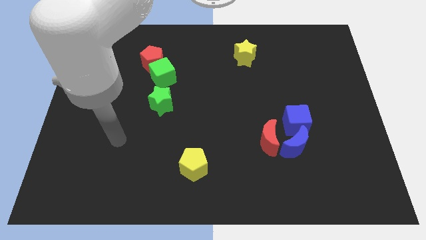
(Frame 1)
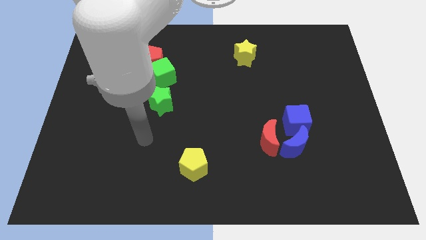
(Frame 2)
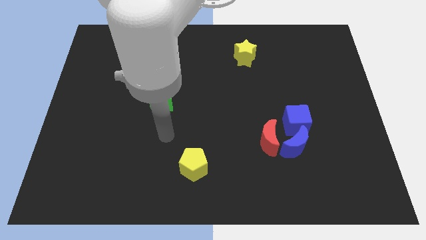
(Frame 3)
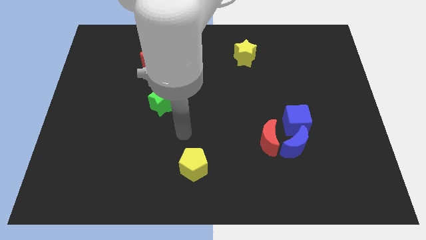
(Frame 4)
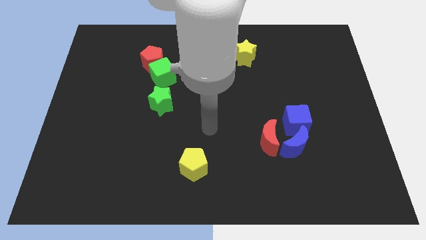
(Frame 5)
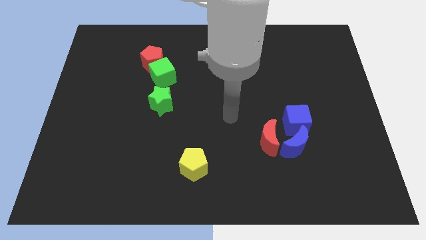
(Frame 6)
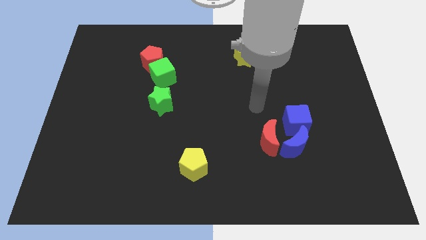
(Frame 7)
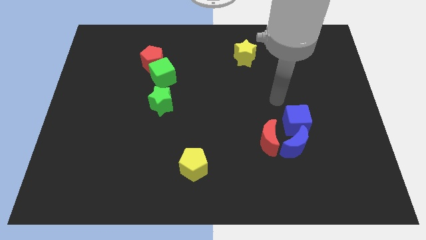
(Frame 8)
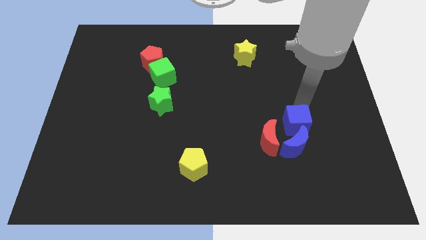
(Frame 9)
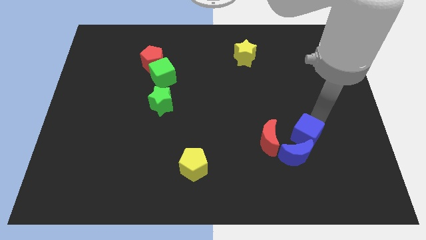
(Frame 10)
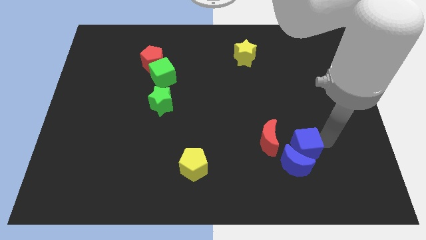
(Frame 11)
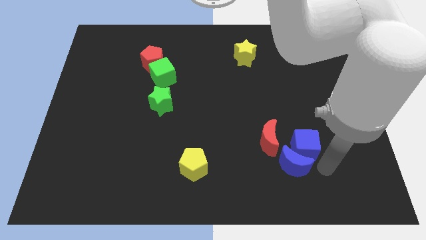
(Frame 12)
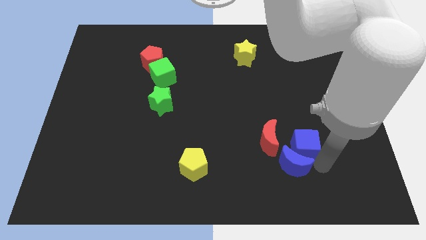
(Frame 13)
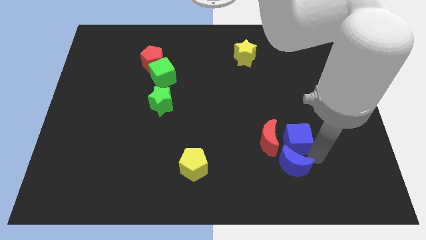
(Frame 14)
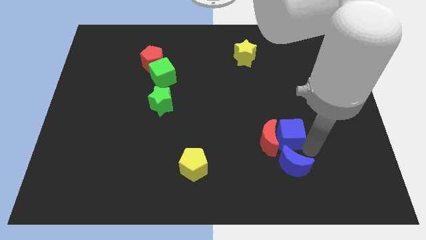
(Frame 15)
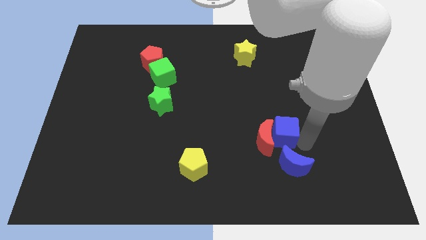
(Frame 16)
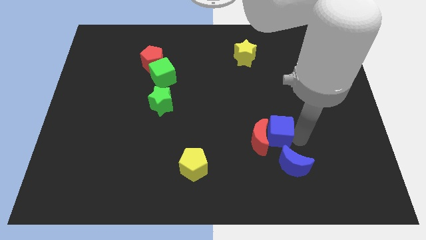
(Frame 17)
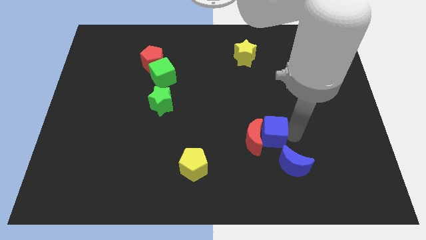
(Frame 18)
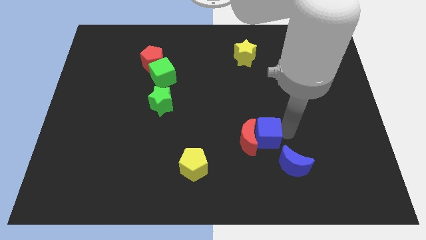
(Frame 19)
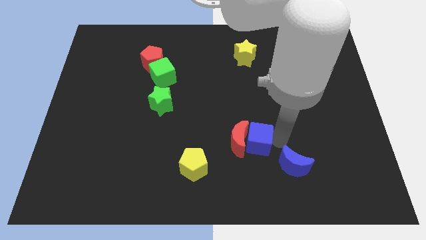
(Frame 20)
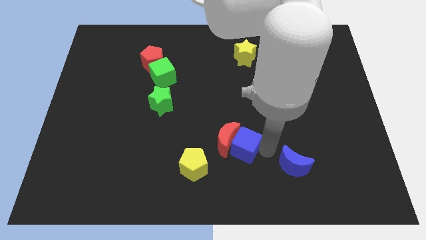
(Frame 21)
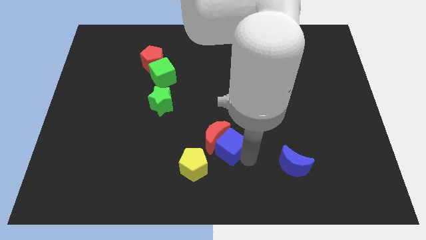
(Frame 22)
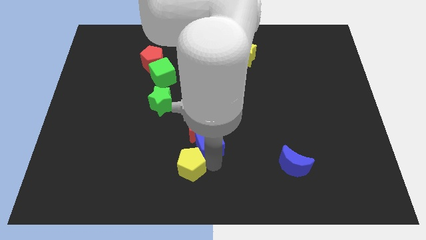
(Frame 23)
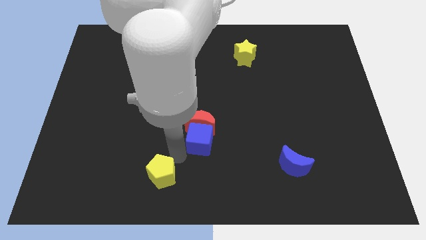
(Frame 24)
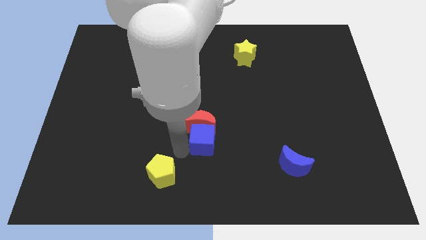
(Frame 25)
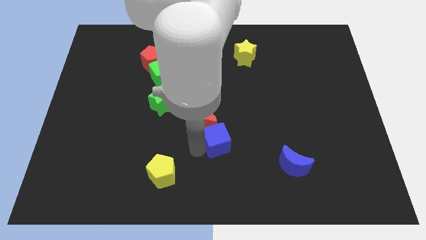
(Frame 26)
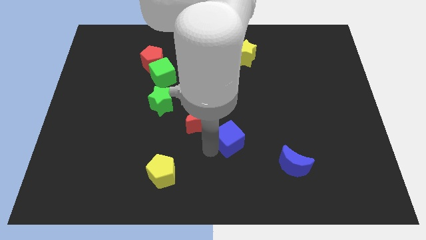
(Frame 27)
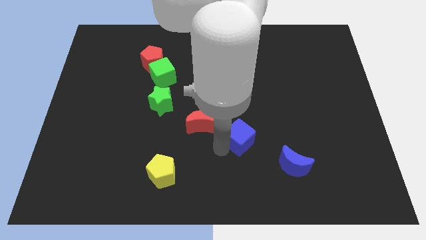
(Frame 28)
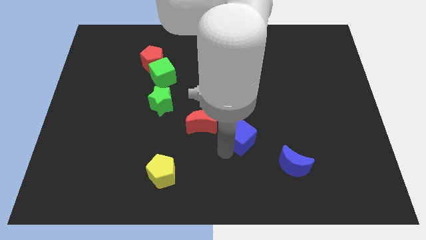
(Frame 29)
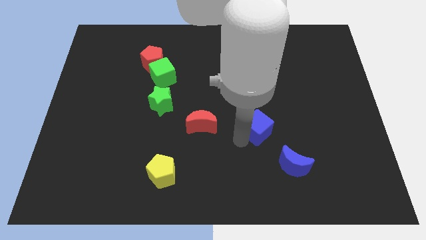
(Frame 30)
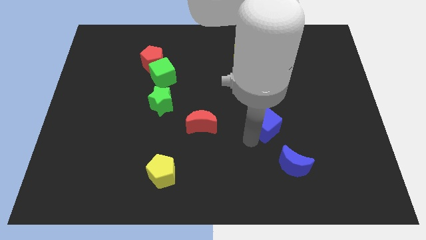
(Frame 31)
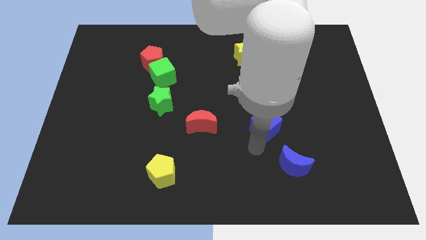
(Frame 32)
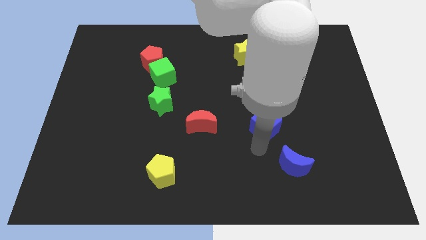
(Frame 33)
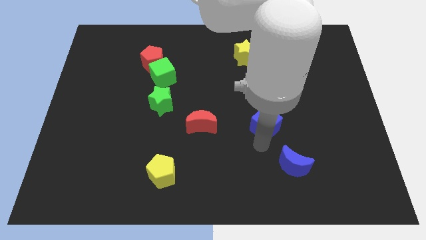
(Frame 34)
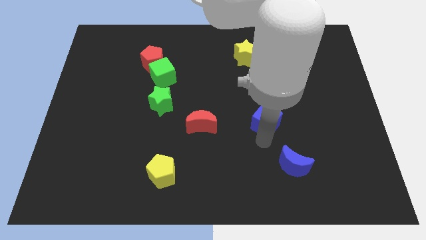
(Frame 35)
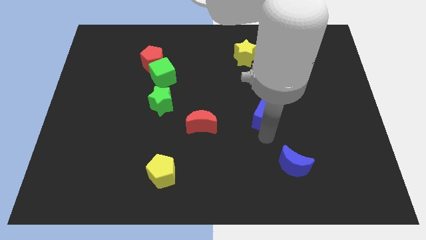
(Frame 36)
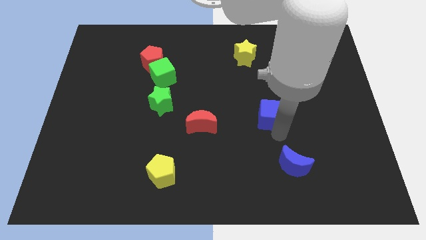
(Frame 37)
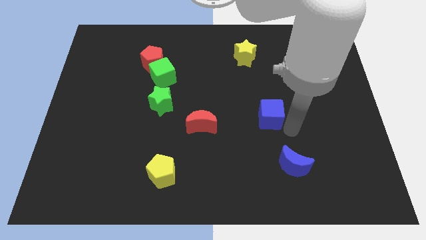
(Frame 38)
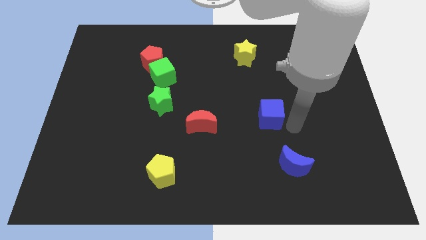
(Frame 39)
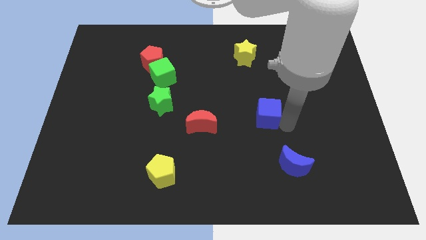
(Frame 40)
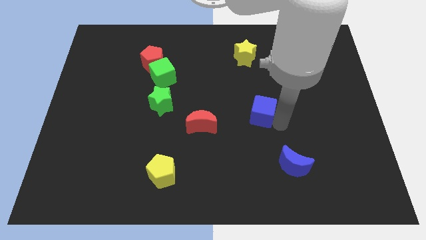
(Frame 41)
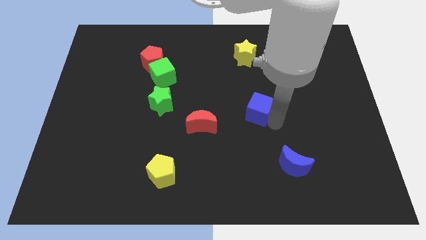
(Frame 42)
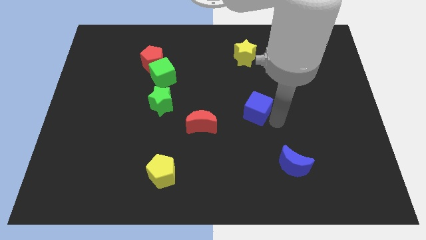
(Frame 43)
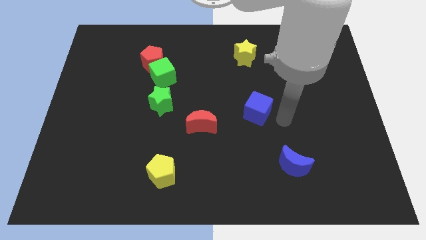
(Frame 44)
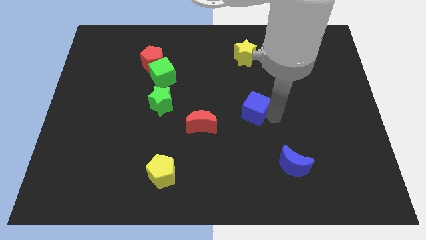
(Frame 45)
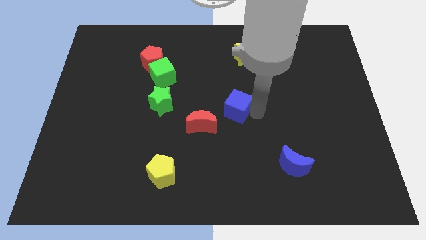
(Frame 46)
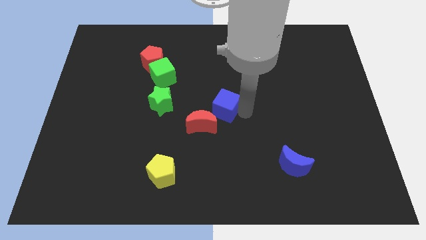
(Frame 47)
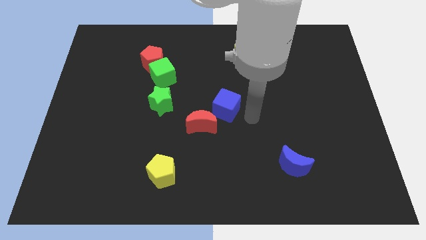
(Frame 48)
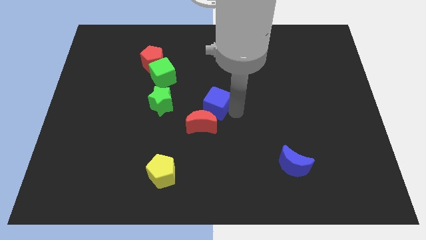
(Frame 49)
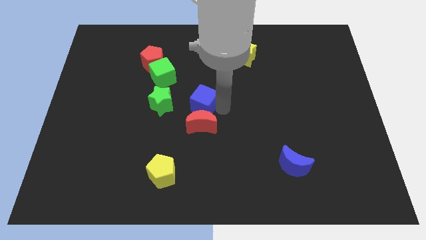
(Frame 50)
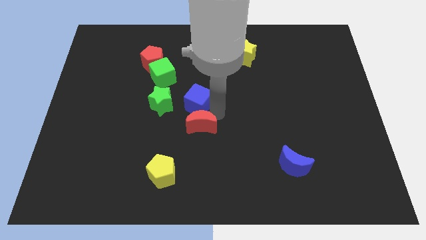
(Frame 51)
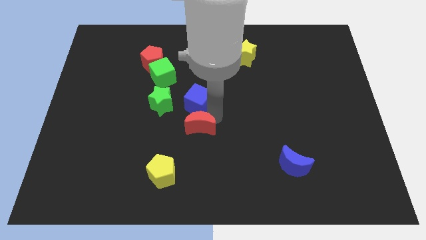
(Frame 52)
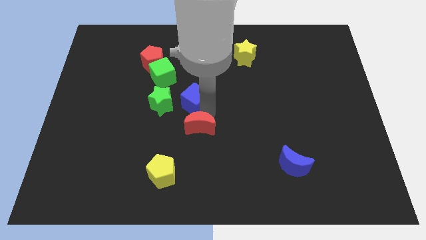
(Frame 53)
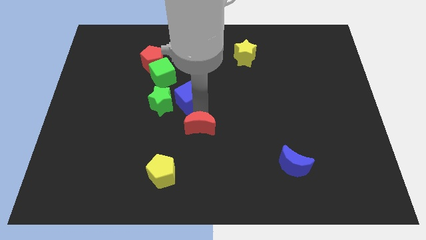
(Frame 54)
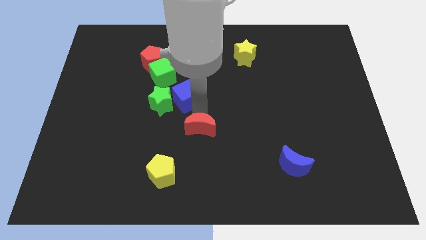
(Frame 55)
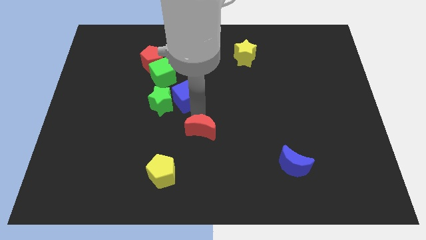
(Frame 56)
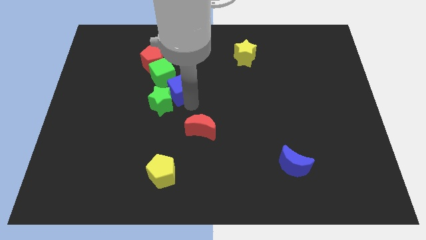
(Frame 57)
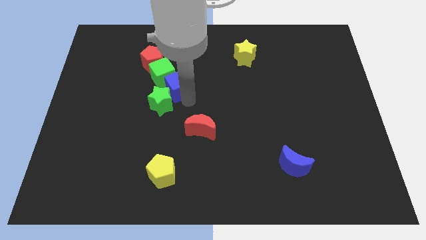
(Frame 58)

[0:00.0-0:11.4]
move the blue cube close to the green cube

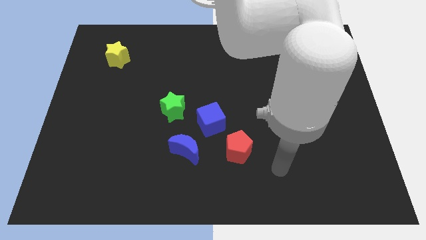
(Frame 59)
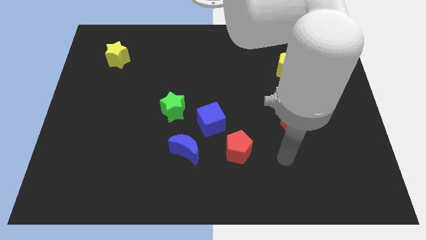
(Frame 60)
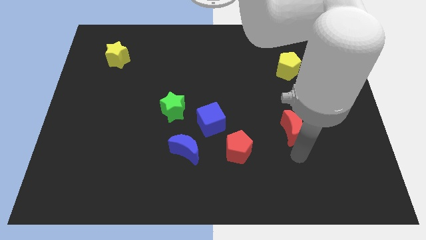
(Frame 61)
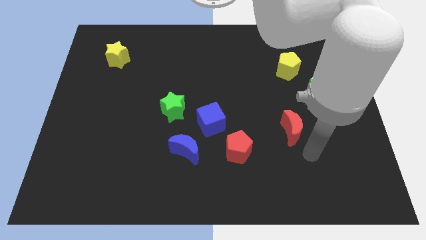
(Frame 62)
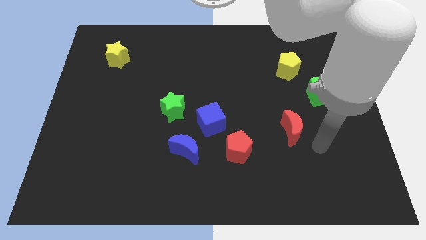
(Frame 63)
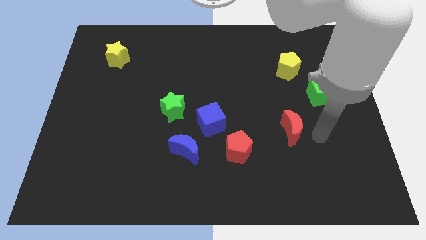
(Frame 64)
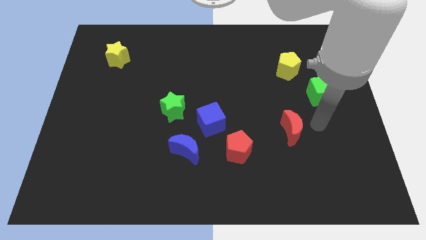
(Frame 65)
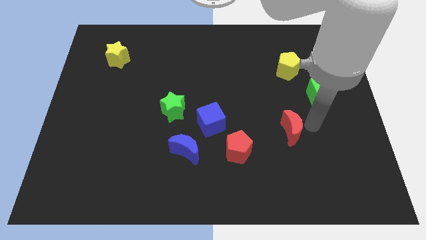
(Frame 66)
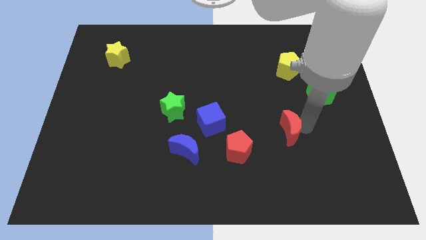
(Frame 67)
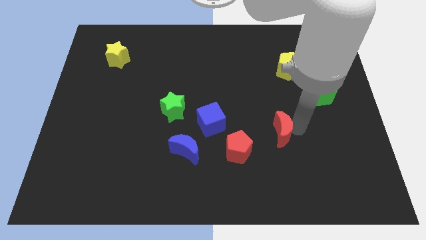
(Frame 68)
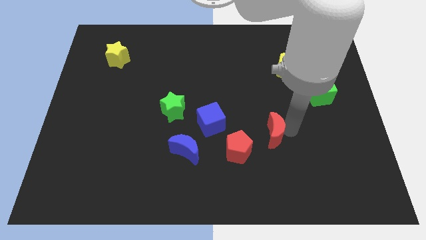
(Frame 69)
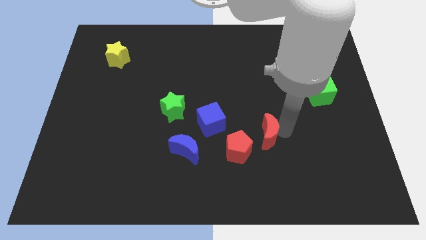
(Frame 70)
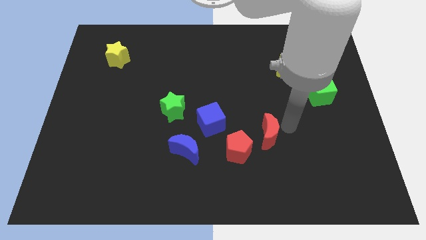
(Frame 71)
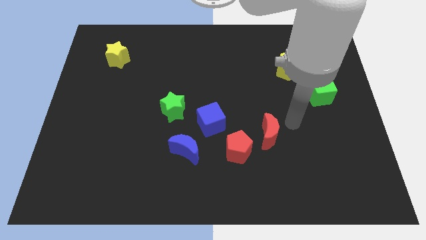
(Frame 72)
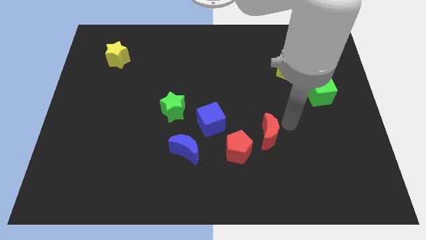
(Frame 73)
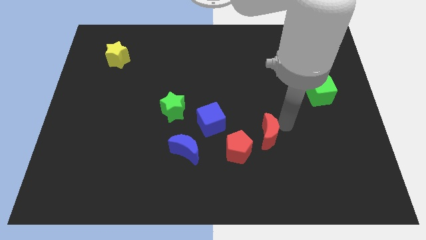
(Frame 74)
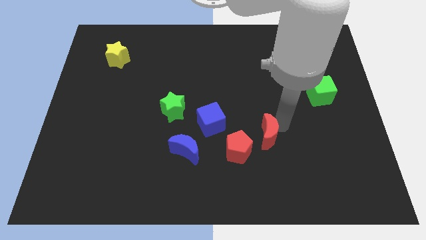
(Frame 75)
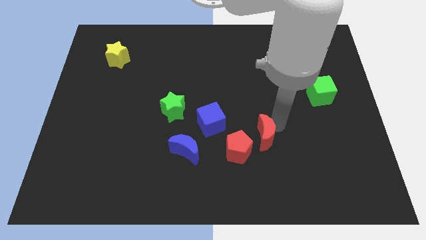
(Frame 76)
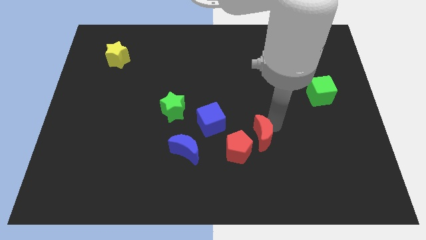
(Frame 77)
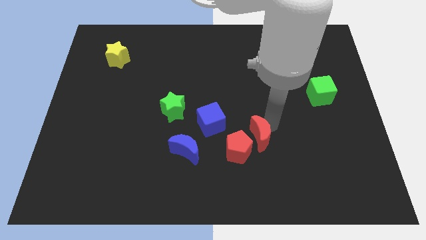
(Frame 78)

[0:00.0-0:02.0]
slide the red moon close to the red pentagon
